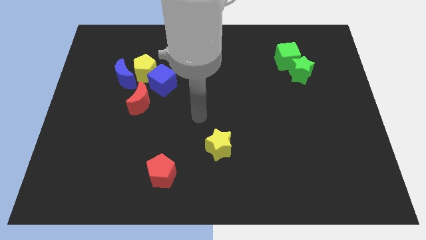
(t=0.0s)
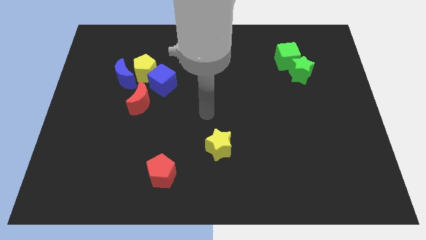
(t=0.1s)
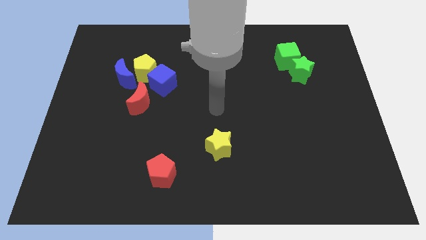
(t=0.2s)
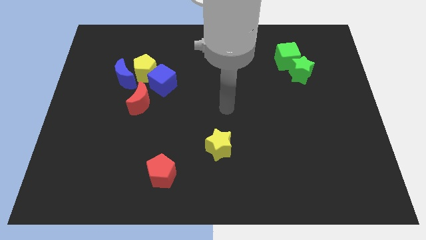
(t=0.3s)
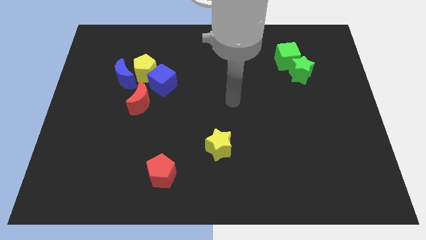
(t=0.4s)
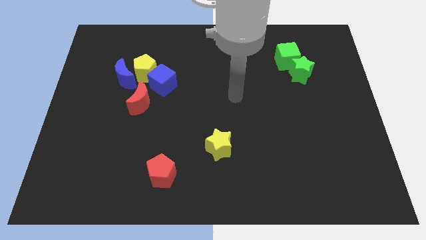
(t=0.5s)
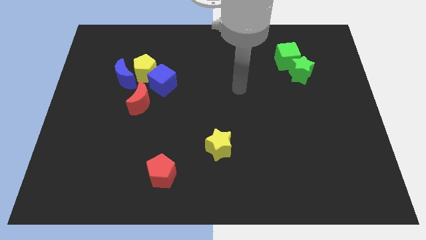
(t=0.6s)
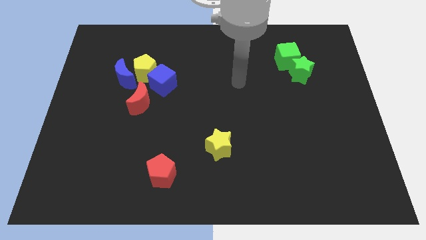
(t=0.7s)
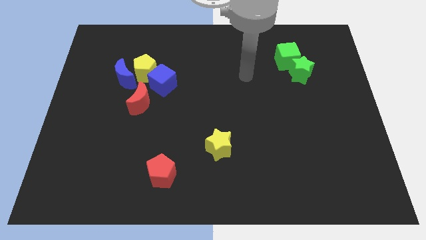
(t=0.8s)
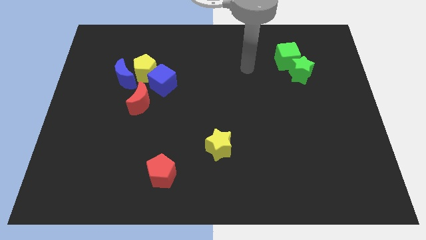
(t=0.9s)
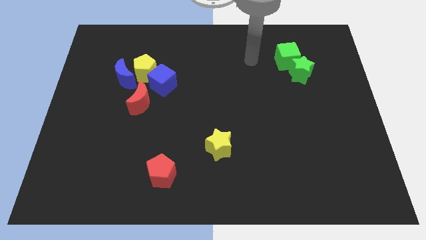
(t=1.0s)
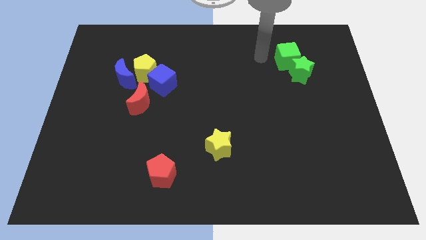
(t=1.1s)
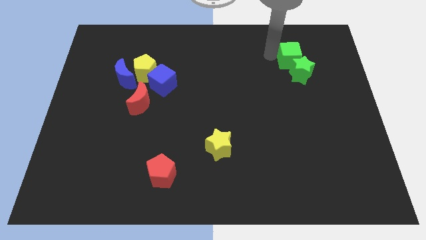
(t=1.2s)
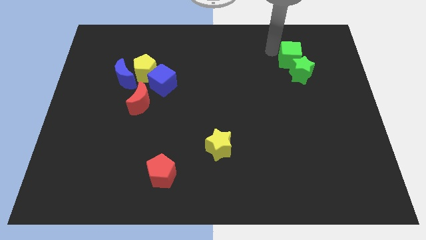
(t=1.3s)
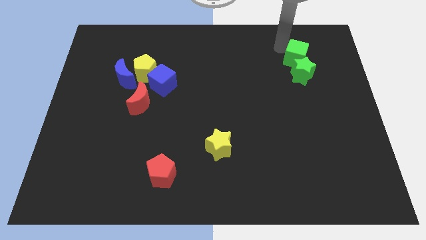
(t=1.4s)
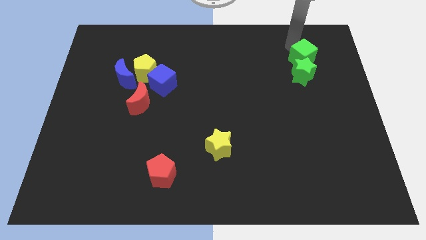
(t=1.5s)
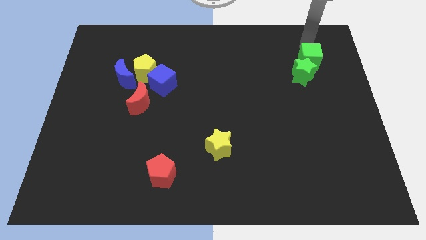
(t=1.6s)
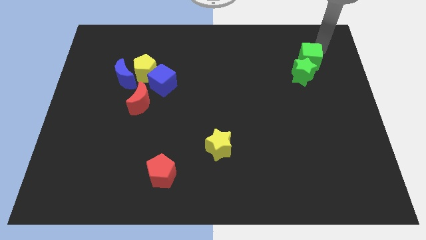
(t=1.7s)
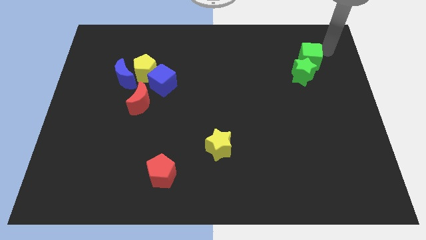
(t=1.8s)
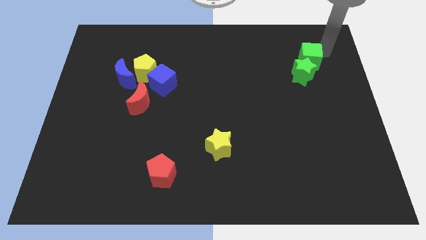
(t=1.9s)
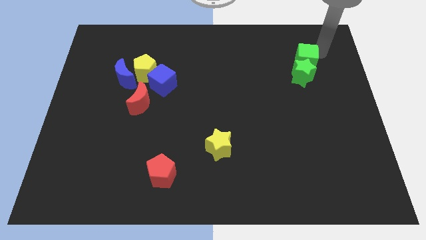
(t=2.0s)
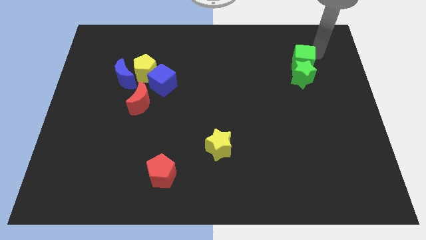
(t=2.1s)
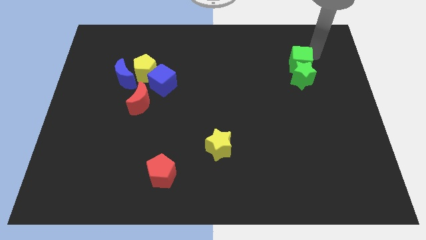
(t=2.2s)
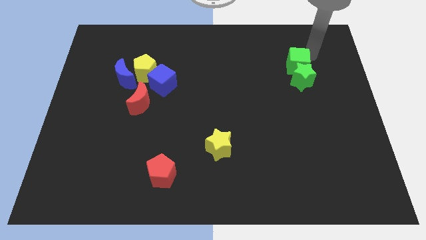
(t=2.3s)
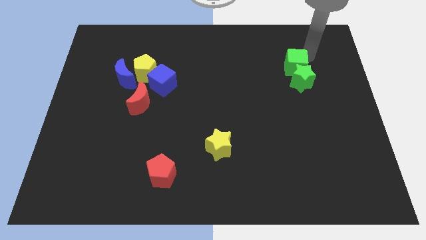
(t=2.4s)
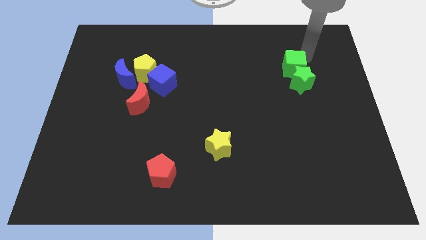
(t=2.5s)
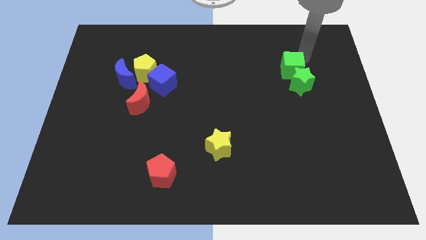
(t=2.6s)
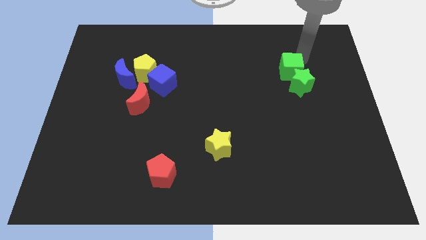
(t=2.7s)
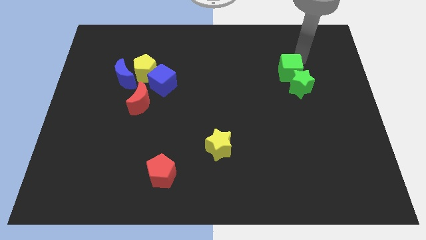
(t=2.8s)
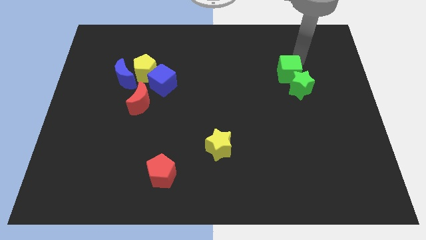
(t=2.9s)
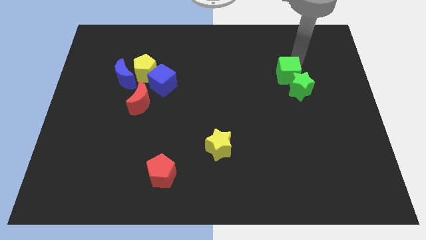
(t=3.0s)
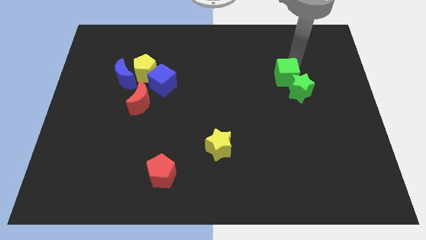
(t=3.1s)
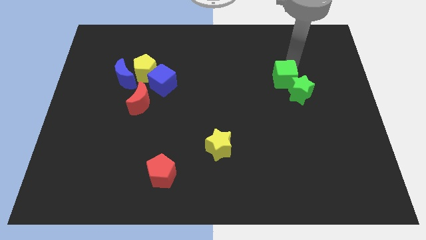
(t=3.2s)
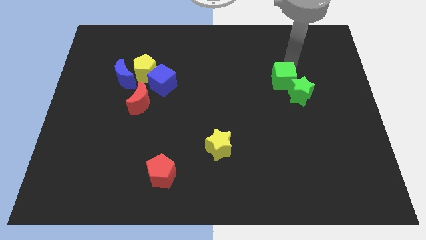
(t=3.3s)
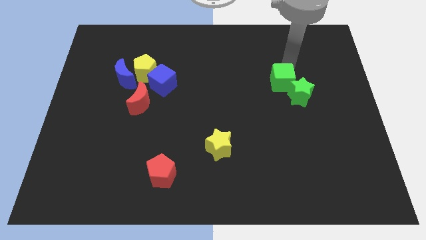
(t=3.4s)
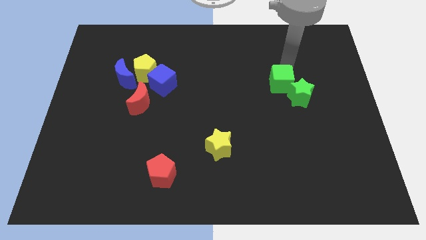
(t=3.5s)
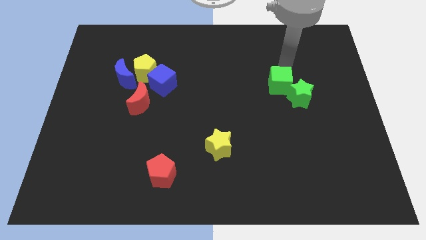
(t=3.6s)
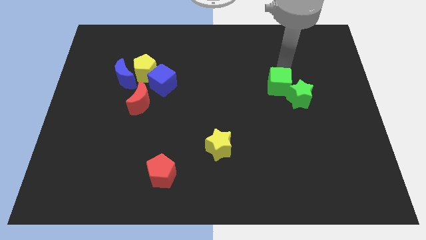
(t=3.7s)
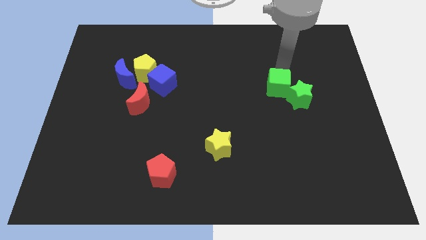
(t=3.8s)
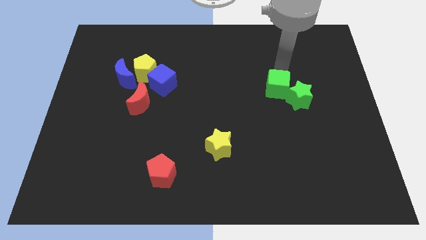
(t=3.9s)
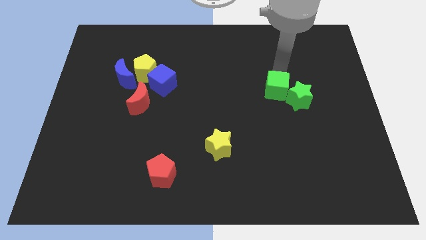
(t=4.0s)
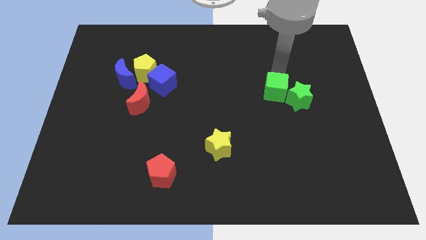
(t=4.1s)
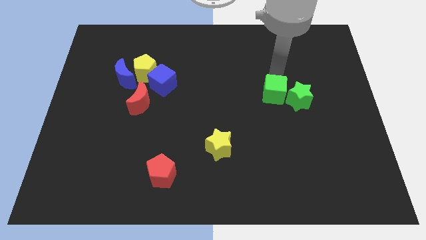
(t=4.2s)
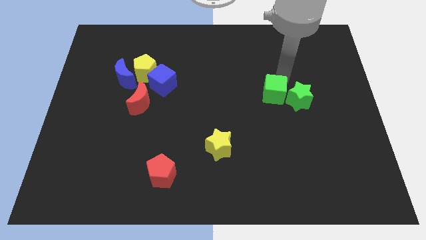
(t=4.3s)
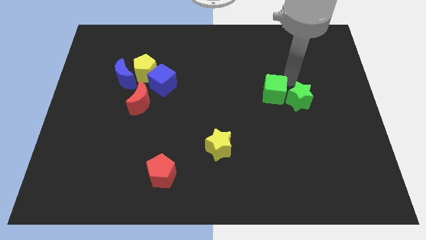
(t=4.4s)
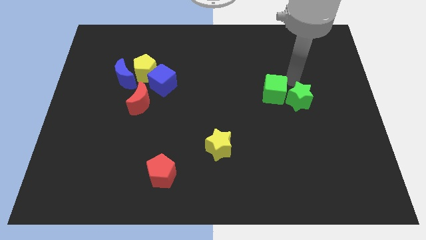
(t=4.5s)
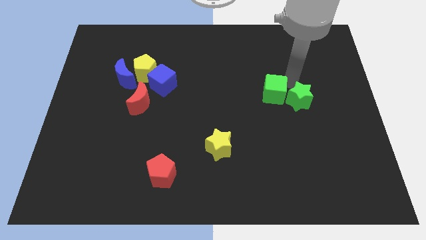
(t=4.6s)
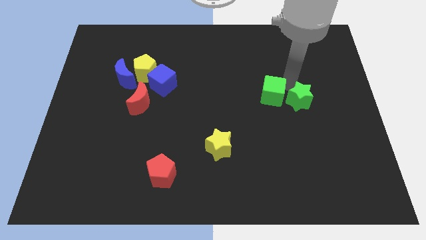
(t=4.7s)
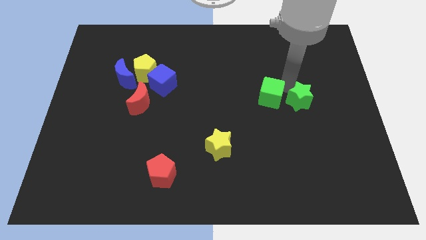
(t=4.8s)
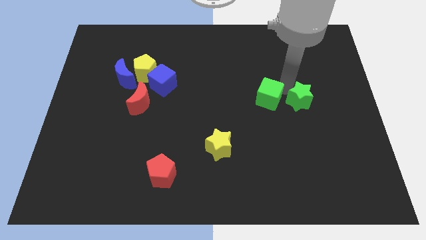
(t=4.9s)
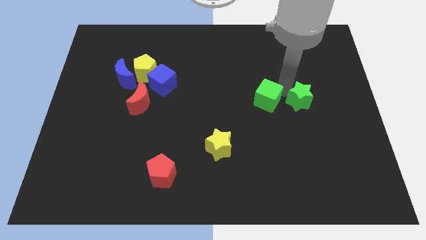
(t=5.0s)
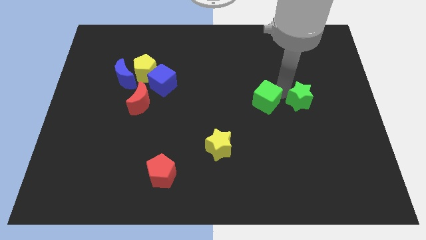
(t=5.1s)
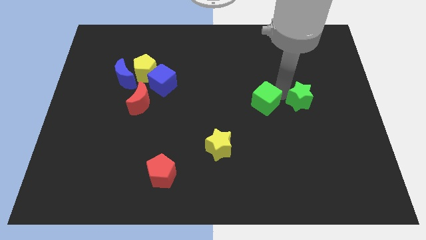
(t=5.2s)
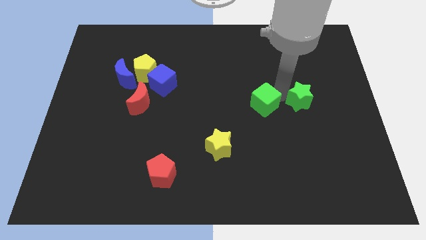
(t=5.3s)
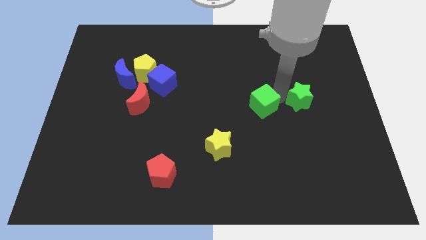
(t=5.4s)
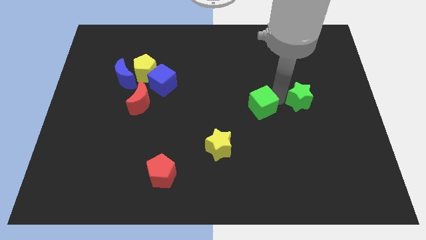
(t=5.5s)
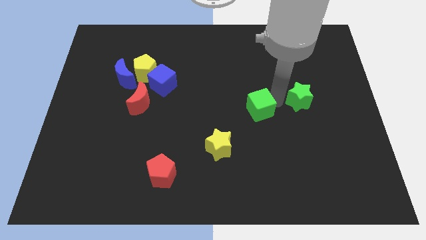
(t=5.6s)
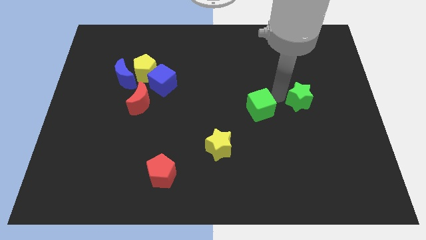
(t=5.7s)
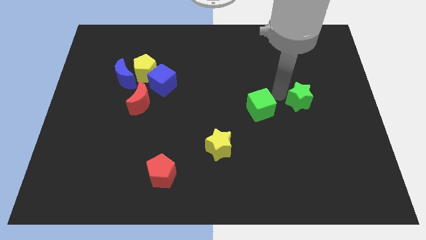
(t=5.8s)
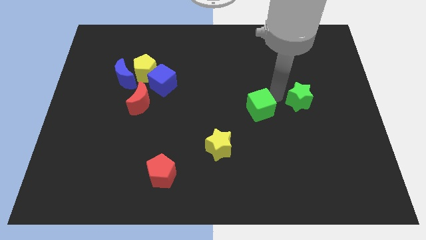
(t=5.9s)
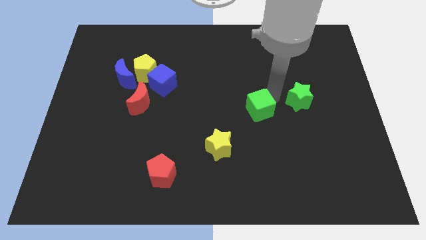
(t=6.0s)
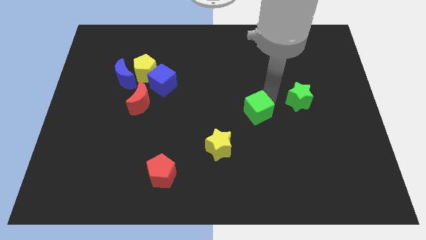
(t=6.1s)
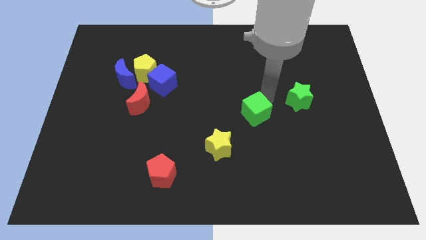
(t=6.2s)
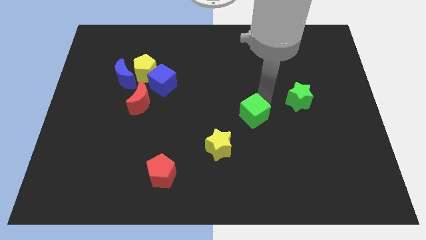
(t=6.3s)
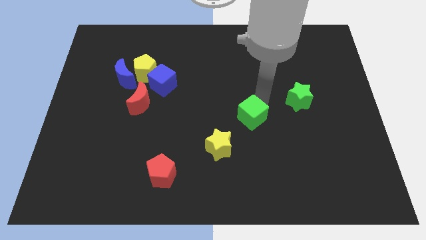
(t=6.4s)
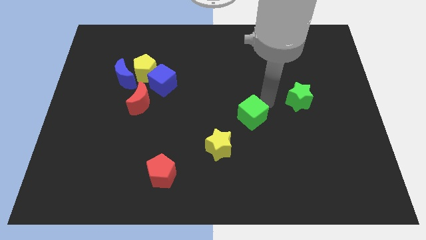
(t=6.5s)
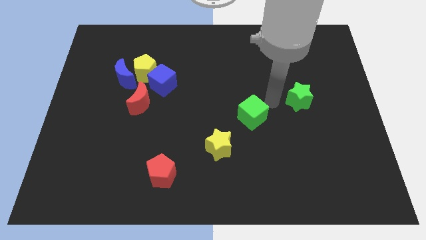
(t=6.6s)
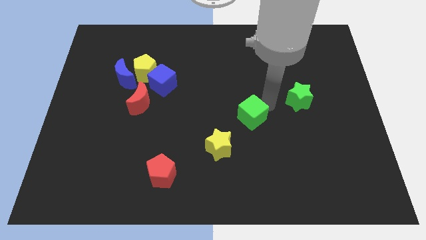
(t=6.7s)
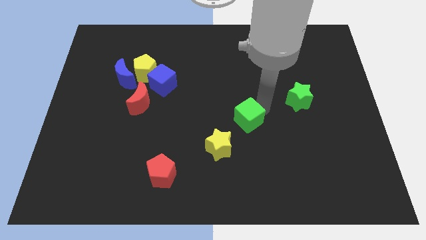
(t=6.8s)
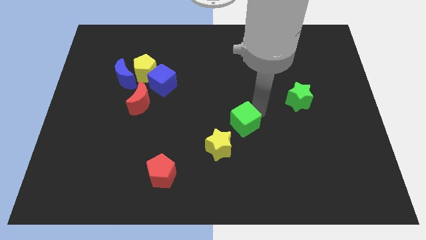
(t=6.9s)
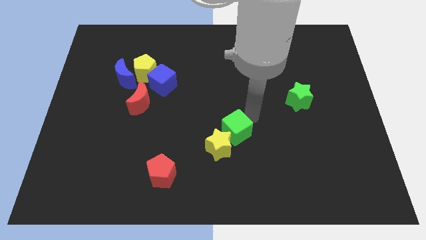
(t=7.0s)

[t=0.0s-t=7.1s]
move the green cube close to the yellow star
